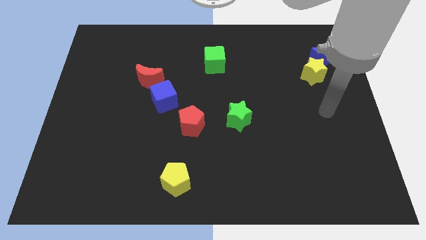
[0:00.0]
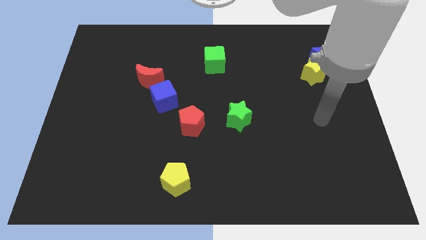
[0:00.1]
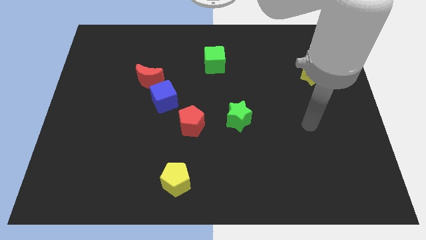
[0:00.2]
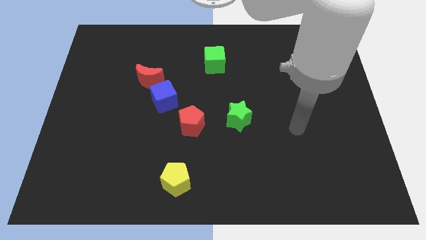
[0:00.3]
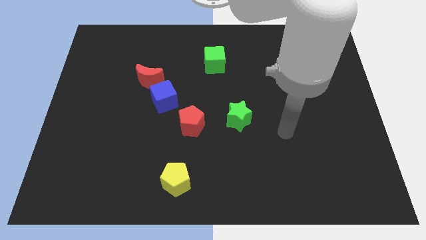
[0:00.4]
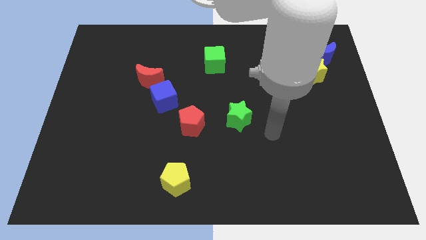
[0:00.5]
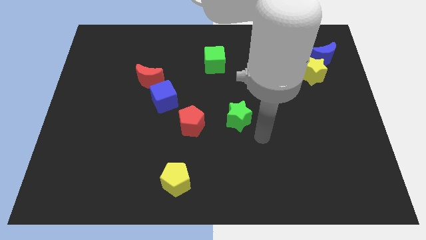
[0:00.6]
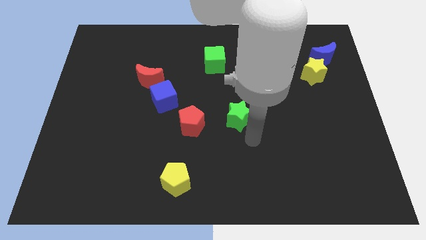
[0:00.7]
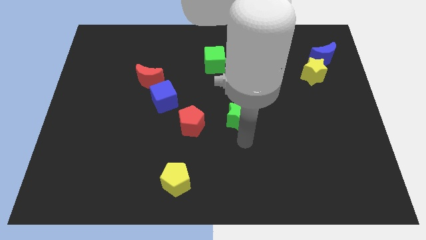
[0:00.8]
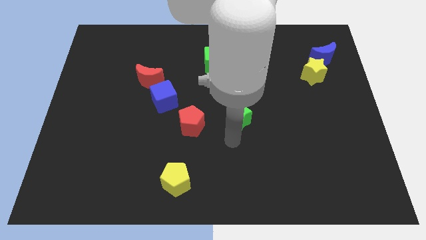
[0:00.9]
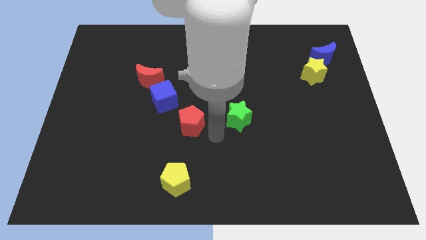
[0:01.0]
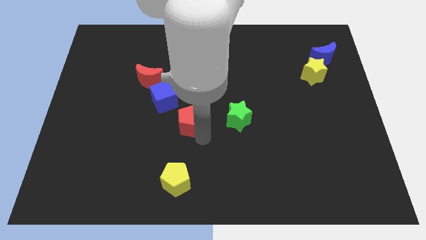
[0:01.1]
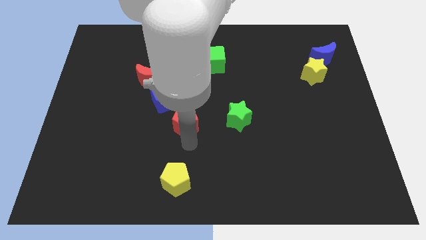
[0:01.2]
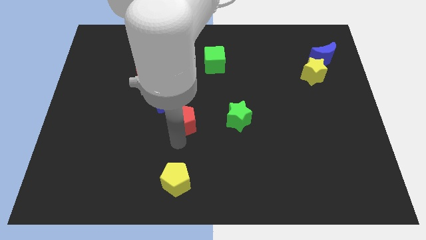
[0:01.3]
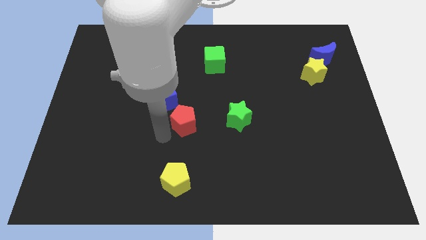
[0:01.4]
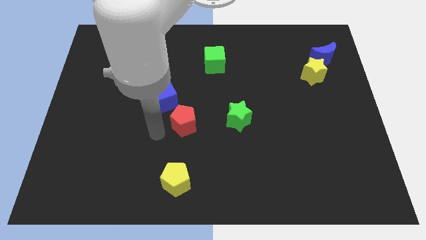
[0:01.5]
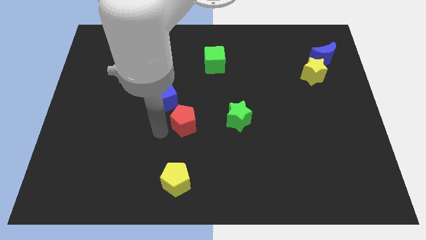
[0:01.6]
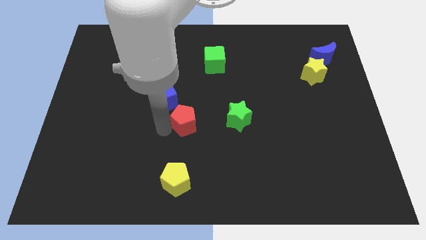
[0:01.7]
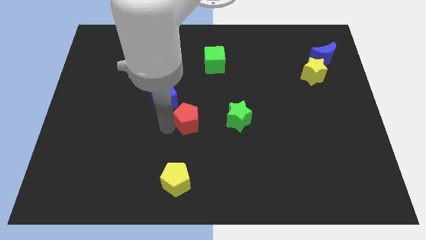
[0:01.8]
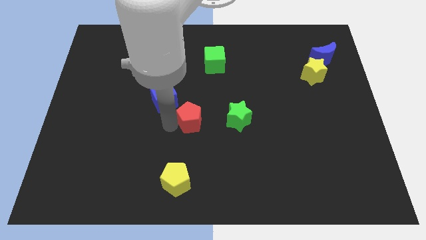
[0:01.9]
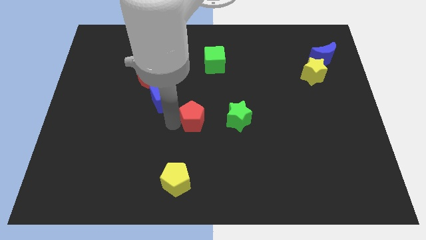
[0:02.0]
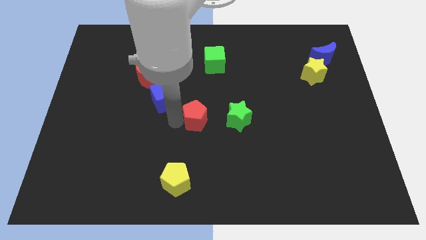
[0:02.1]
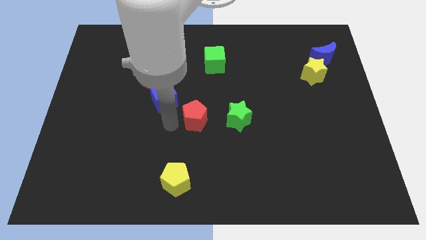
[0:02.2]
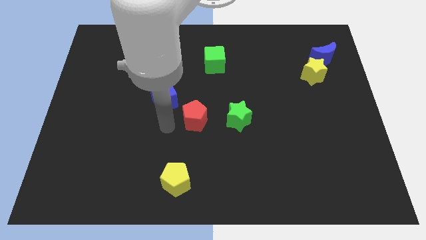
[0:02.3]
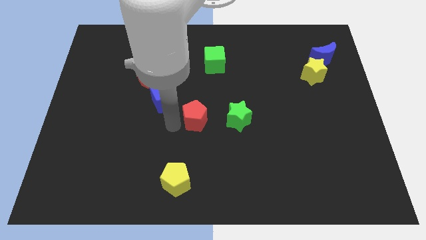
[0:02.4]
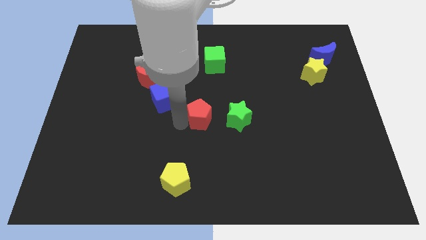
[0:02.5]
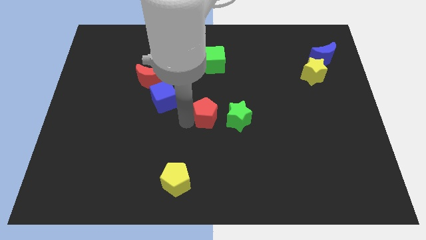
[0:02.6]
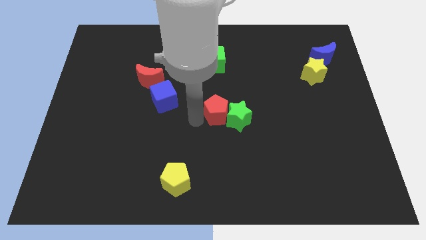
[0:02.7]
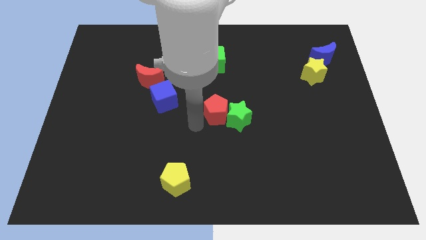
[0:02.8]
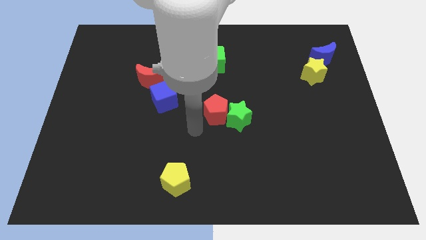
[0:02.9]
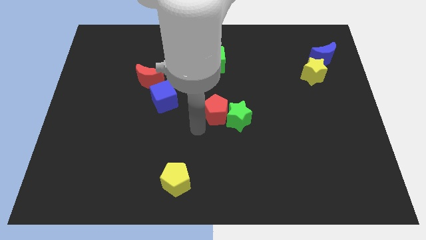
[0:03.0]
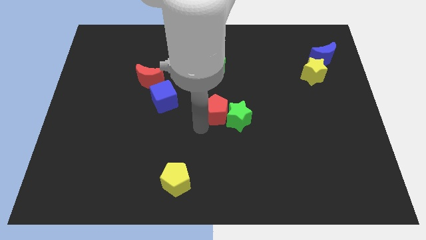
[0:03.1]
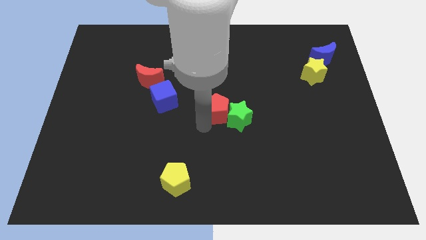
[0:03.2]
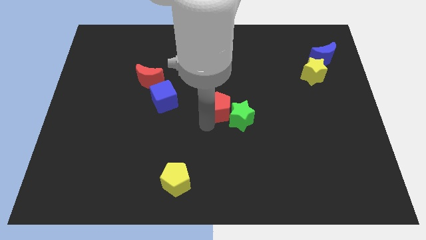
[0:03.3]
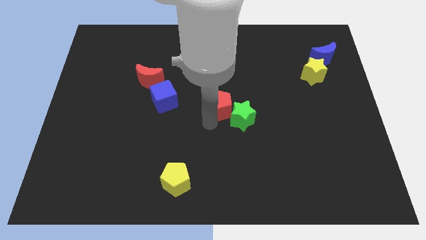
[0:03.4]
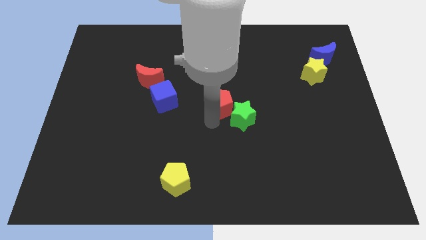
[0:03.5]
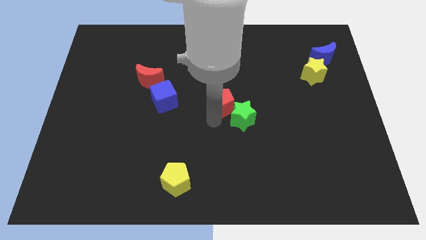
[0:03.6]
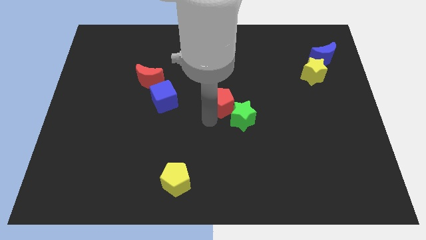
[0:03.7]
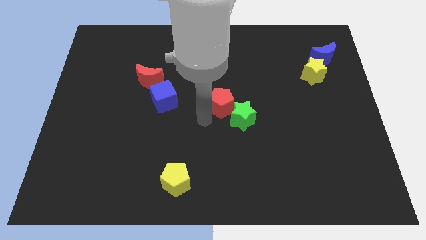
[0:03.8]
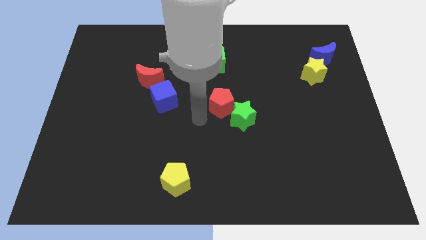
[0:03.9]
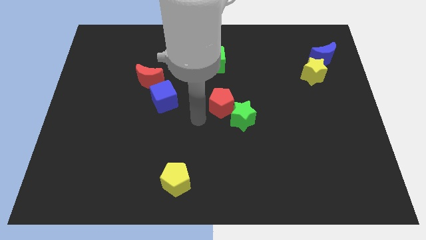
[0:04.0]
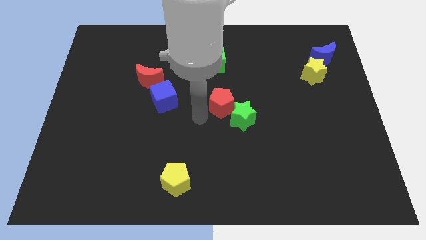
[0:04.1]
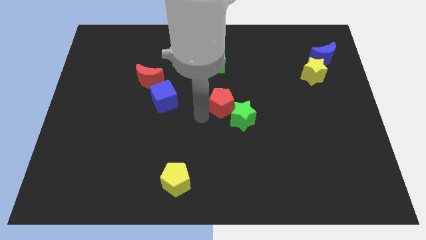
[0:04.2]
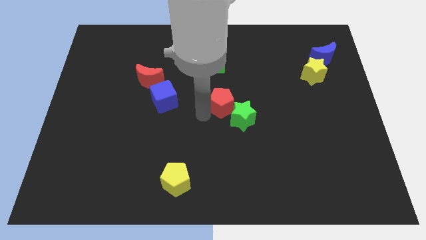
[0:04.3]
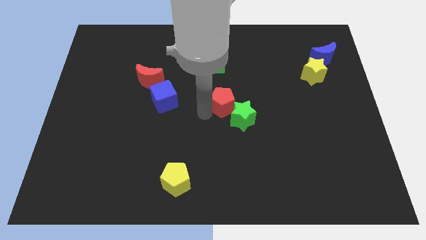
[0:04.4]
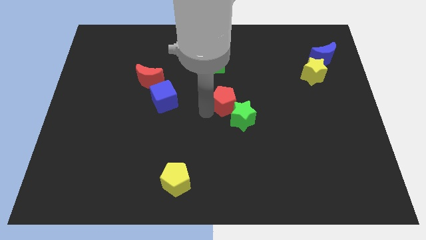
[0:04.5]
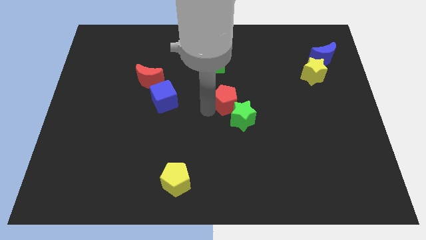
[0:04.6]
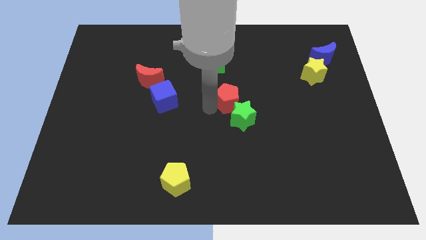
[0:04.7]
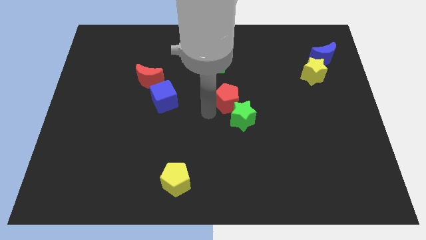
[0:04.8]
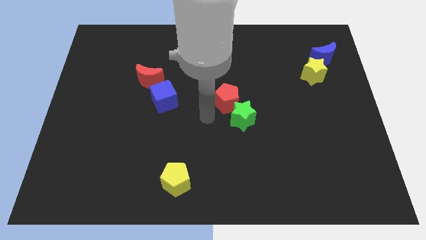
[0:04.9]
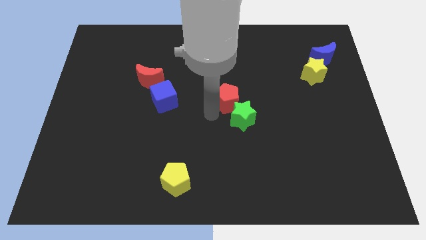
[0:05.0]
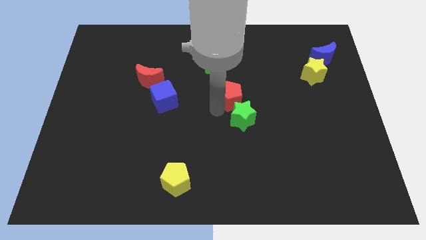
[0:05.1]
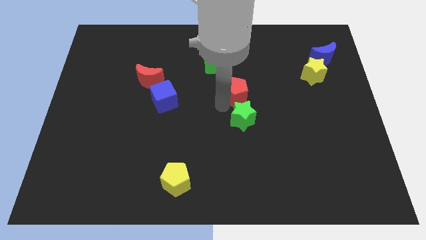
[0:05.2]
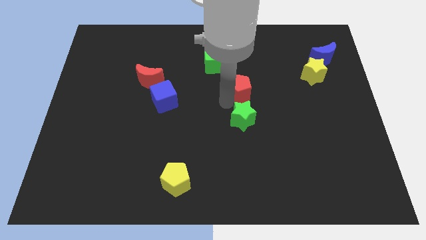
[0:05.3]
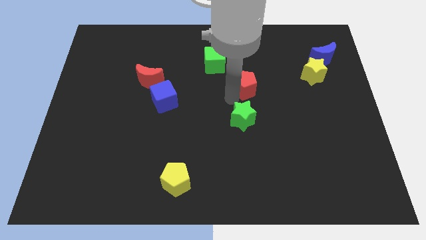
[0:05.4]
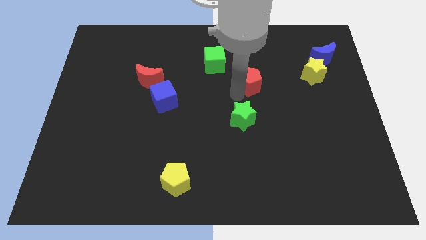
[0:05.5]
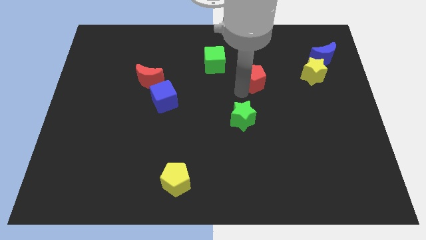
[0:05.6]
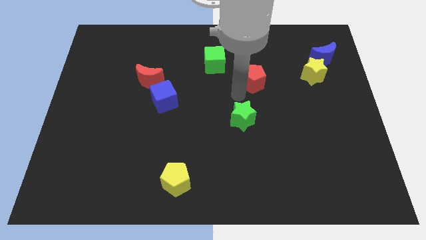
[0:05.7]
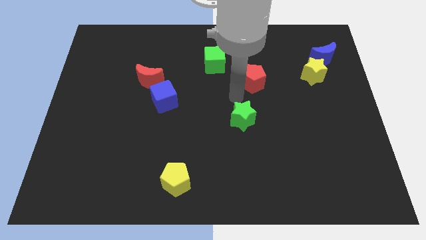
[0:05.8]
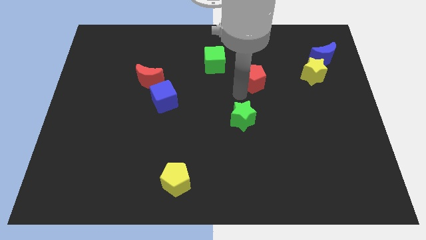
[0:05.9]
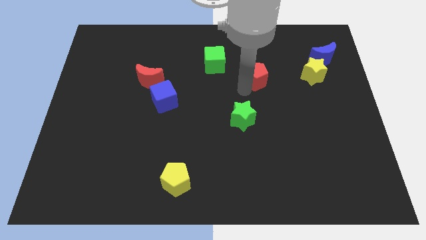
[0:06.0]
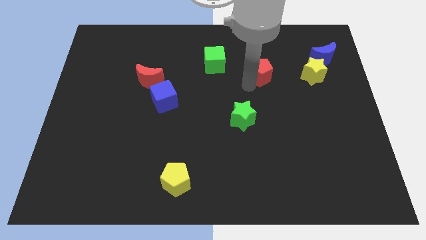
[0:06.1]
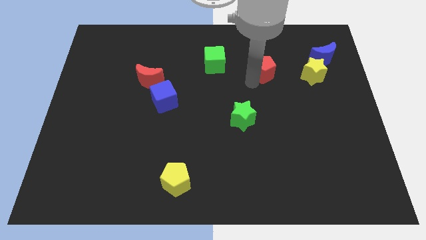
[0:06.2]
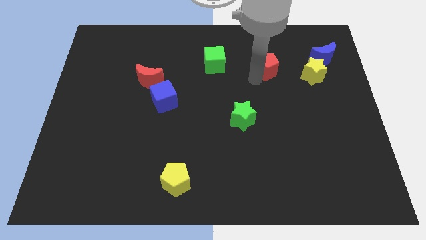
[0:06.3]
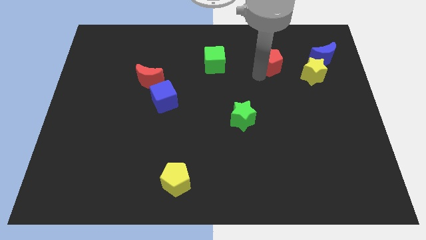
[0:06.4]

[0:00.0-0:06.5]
push the red pentagon left of the blue moon
